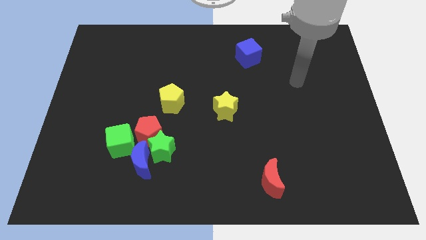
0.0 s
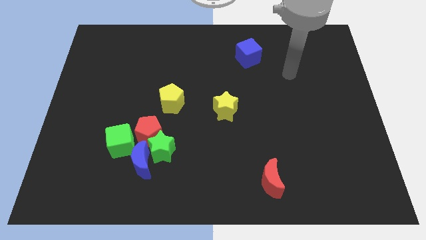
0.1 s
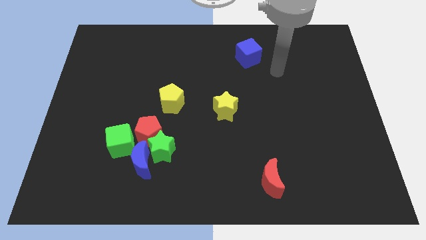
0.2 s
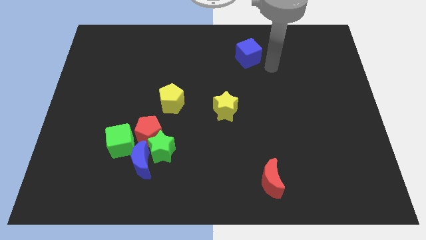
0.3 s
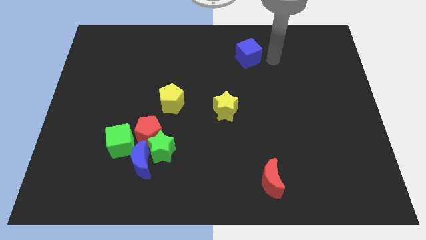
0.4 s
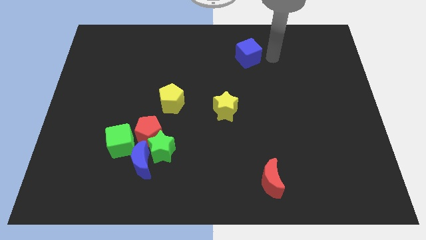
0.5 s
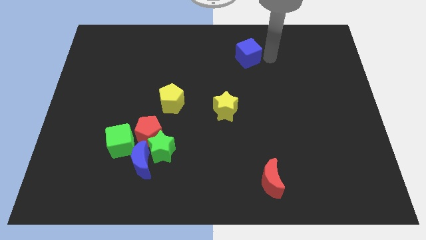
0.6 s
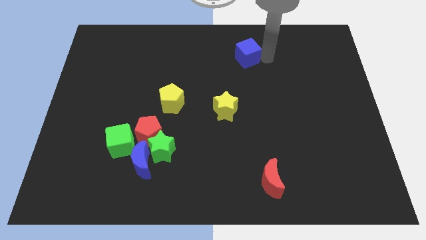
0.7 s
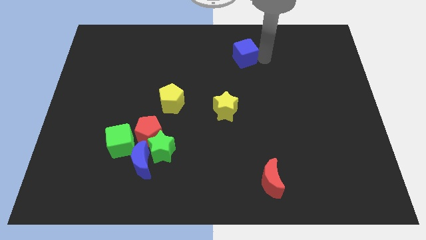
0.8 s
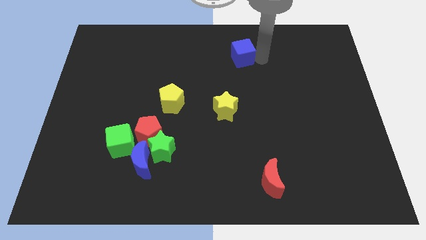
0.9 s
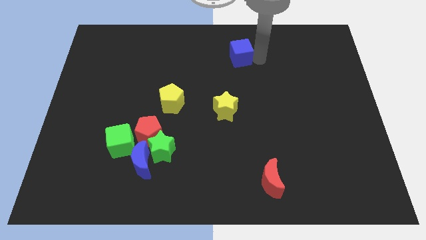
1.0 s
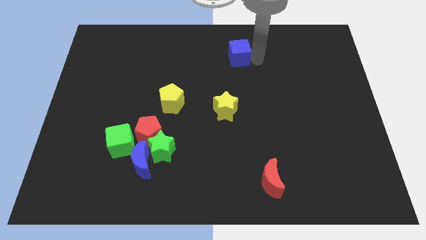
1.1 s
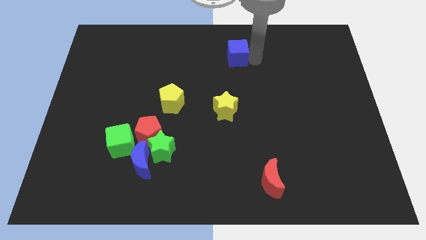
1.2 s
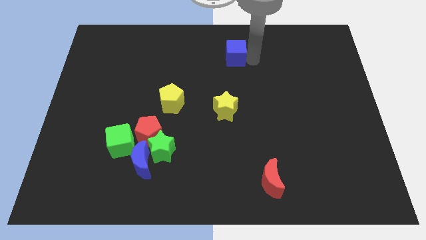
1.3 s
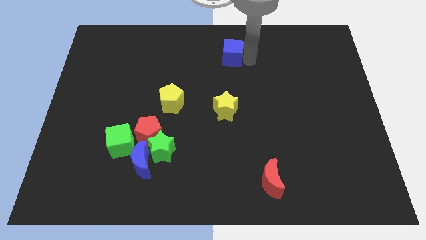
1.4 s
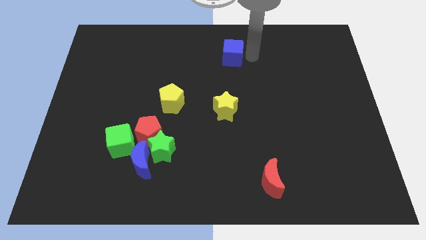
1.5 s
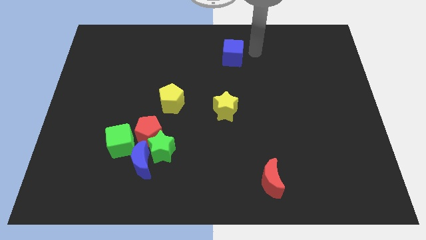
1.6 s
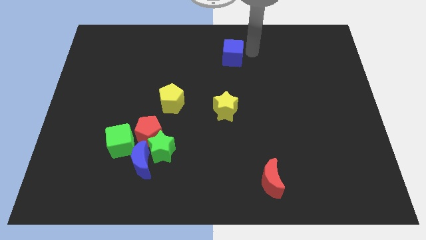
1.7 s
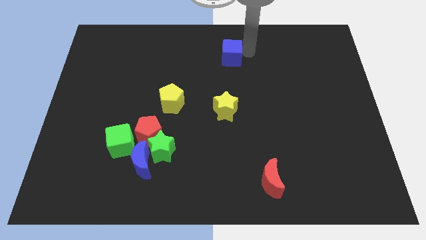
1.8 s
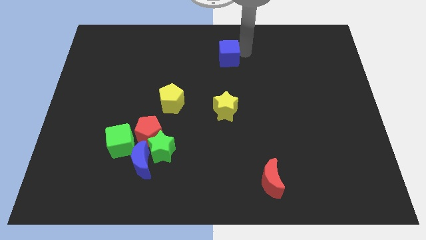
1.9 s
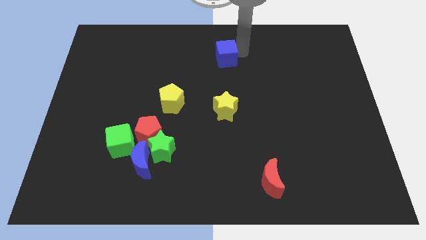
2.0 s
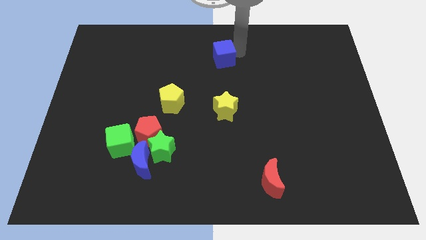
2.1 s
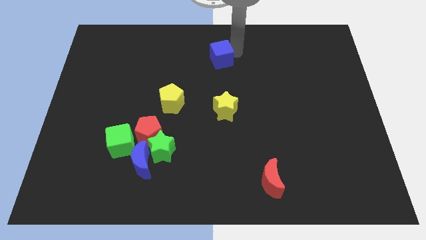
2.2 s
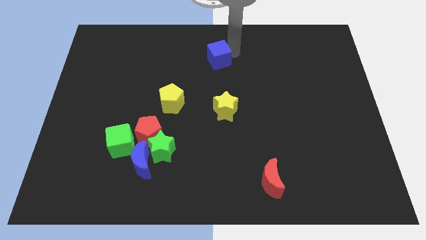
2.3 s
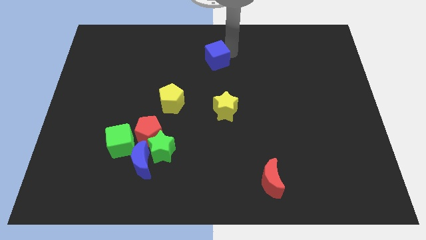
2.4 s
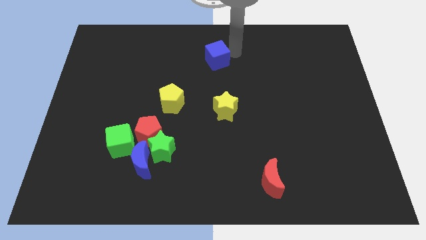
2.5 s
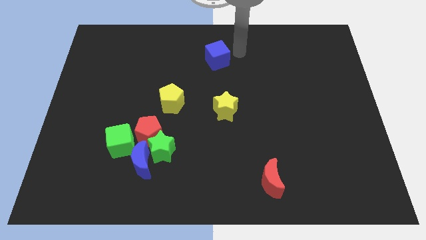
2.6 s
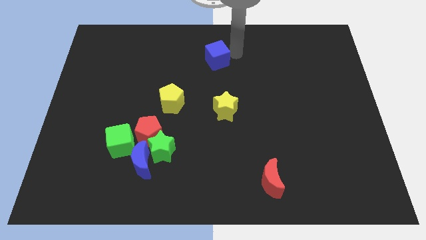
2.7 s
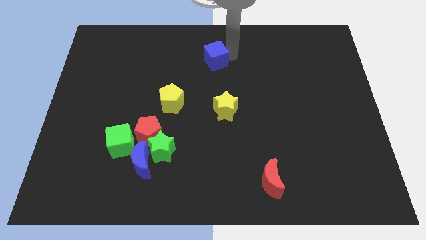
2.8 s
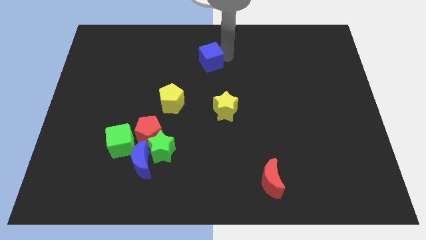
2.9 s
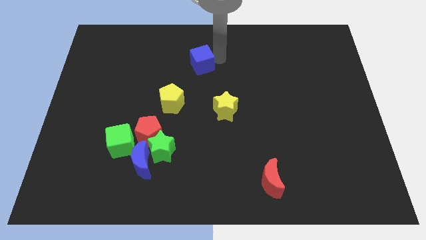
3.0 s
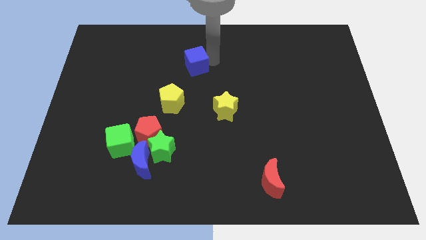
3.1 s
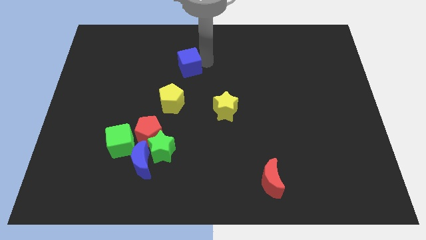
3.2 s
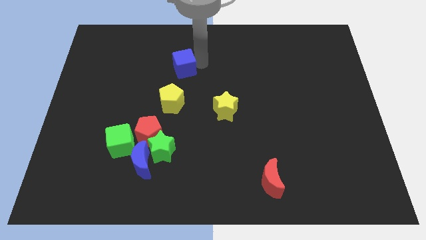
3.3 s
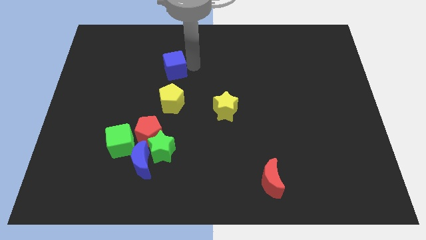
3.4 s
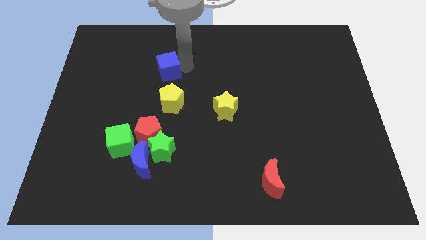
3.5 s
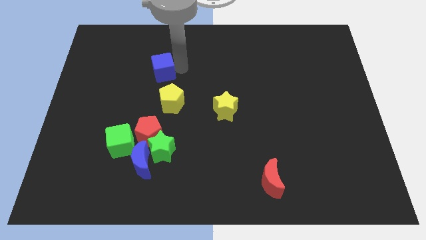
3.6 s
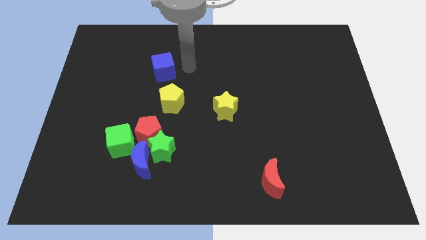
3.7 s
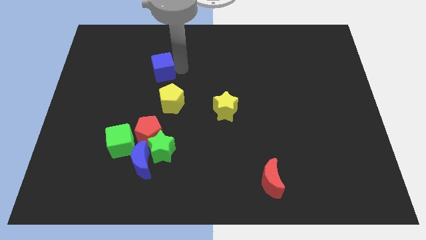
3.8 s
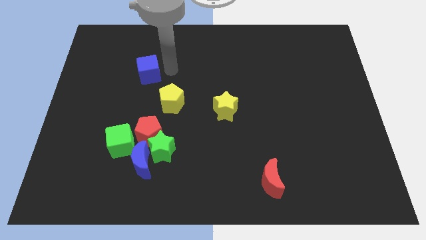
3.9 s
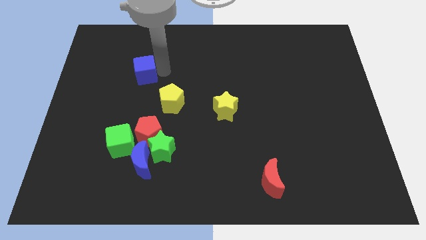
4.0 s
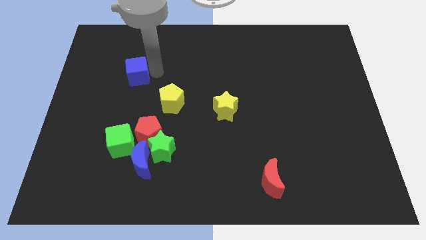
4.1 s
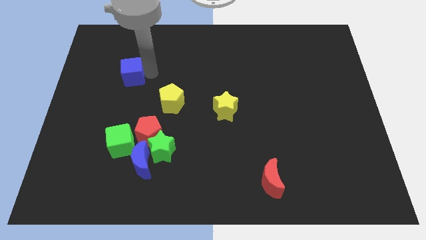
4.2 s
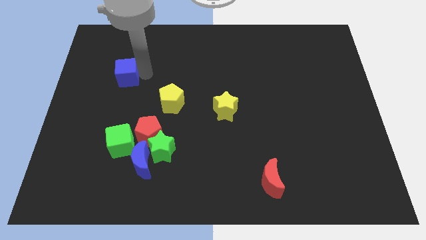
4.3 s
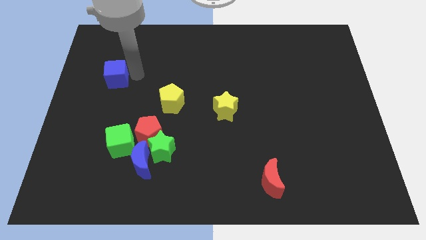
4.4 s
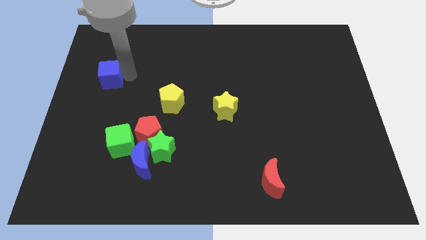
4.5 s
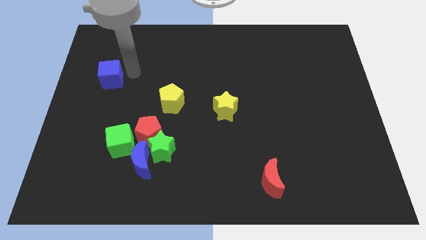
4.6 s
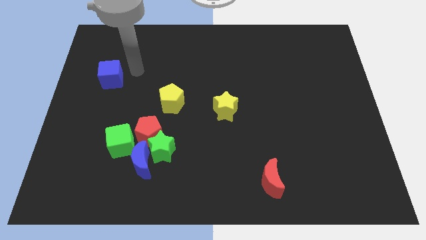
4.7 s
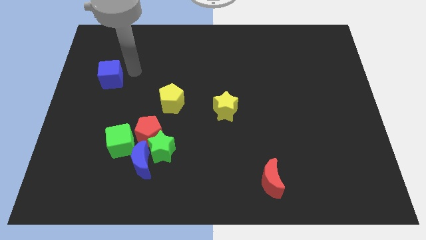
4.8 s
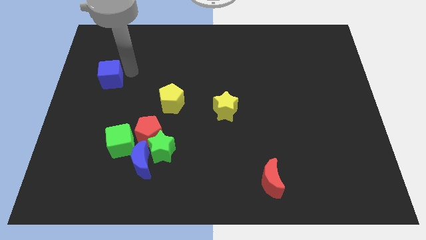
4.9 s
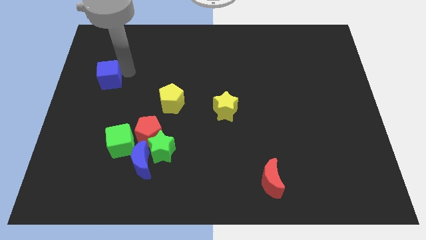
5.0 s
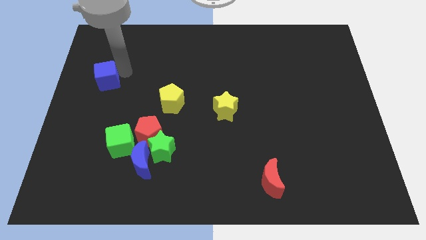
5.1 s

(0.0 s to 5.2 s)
slide the blue cube to the center left

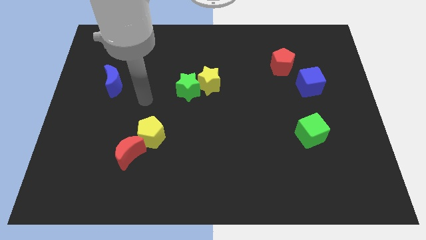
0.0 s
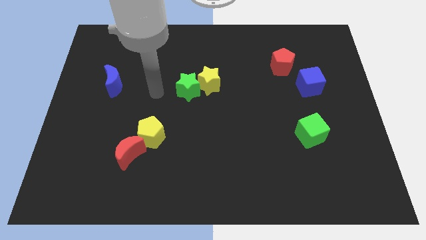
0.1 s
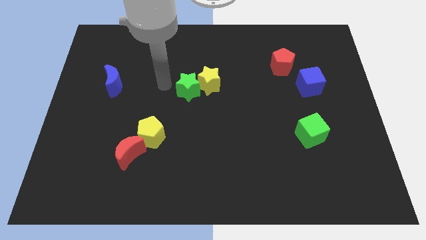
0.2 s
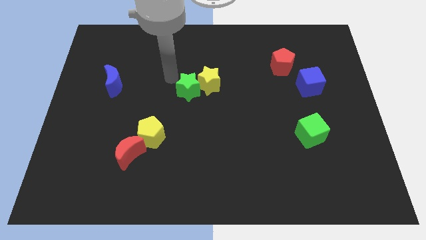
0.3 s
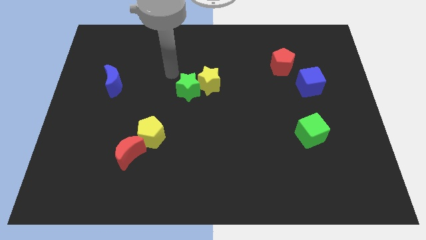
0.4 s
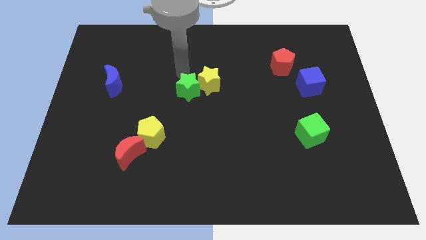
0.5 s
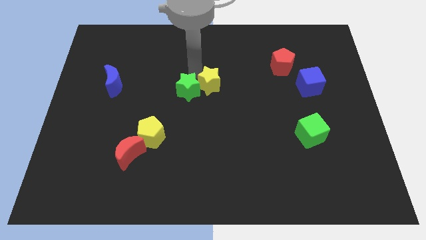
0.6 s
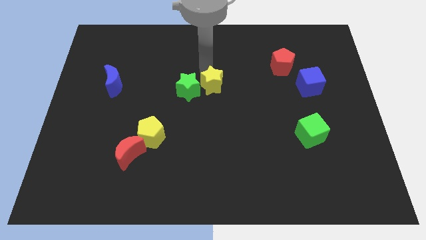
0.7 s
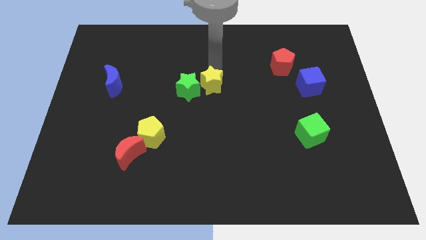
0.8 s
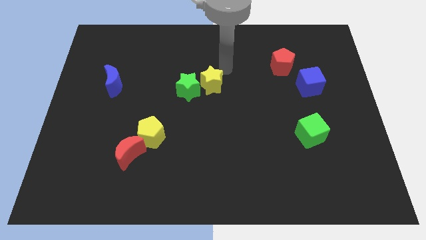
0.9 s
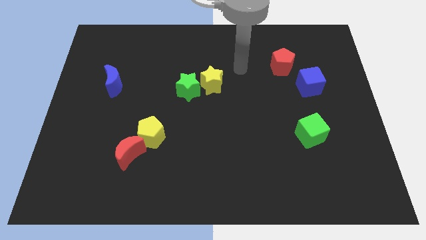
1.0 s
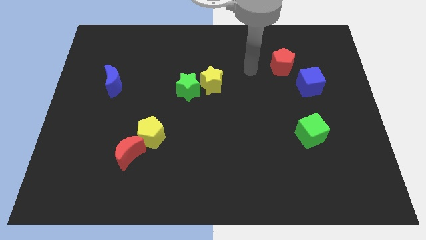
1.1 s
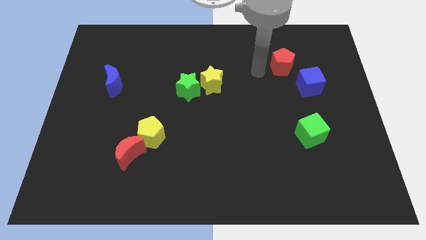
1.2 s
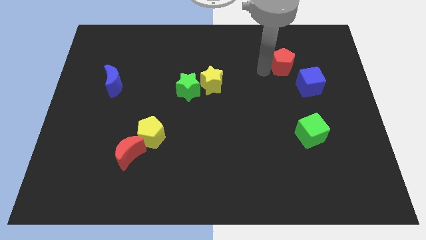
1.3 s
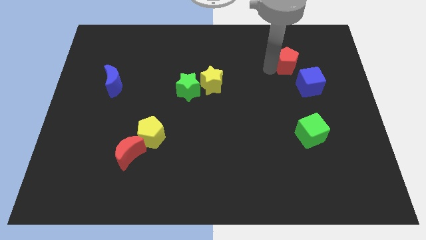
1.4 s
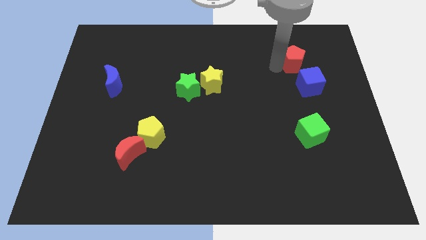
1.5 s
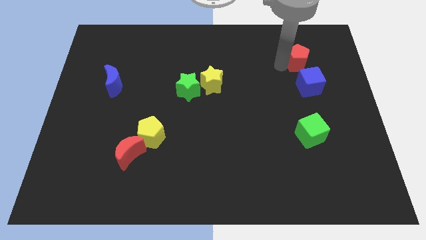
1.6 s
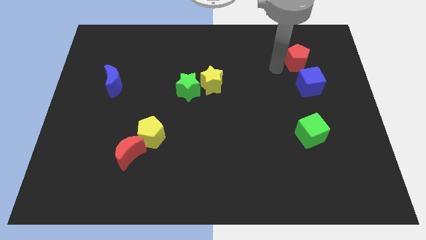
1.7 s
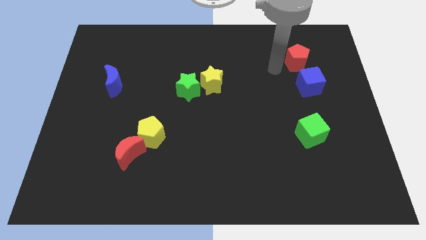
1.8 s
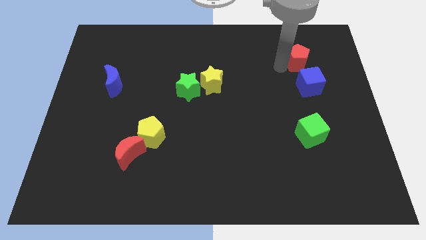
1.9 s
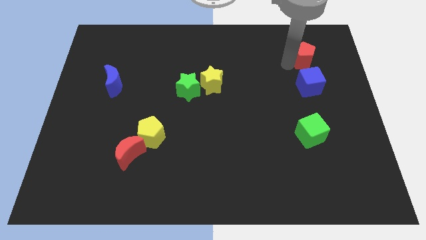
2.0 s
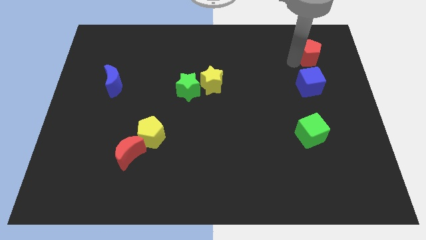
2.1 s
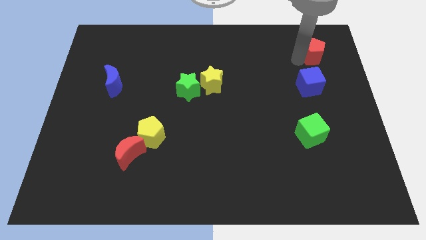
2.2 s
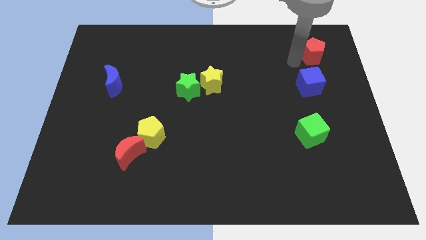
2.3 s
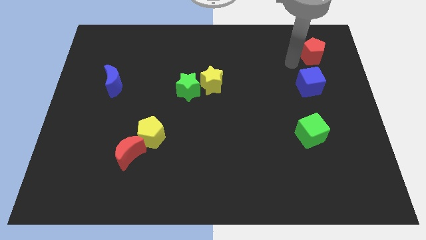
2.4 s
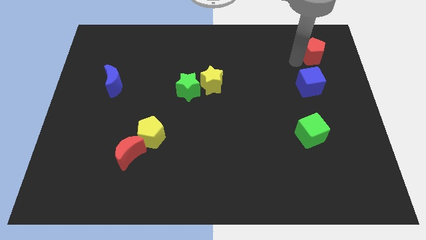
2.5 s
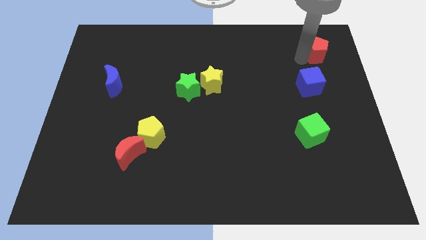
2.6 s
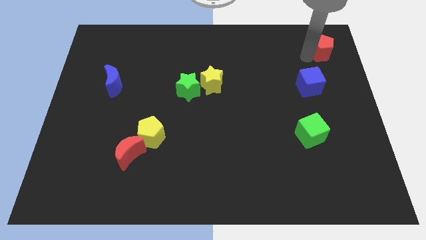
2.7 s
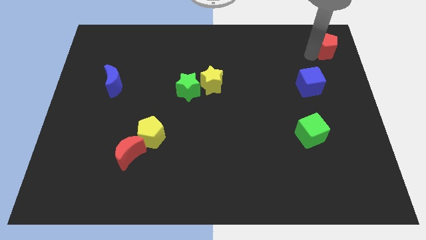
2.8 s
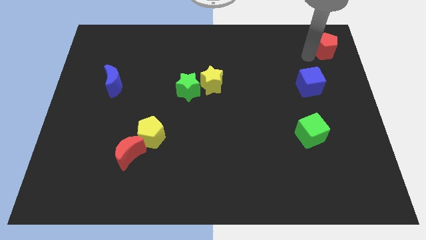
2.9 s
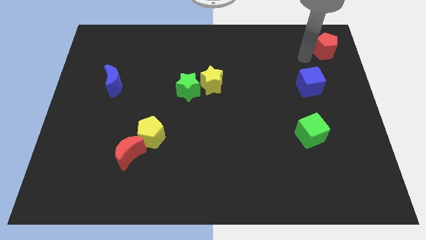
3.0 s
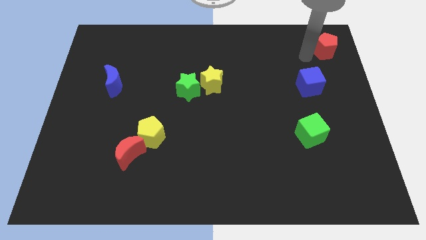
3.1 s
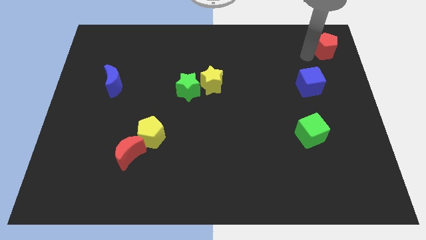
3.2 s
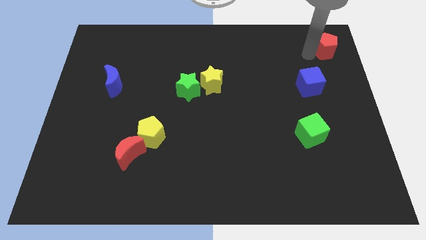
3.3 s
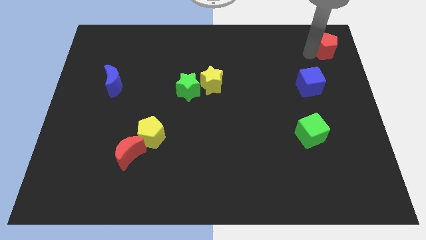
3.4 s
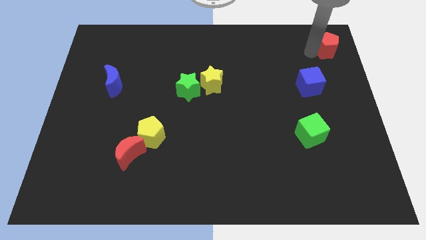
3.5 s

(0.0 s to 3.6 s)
move the red pentagon to the top right
